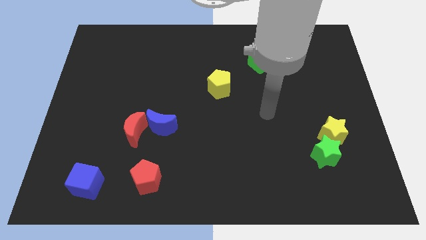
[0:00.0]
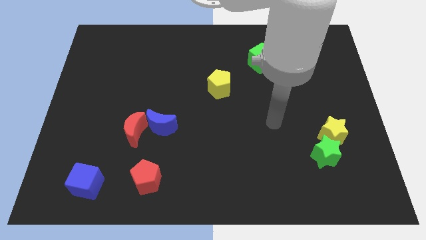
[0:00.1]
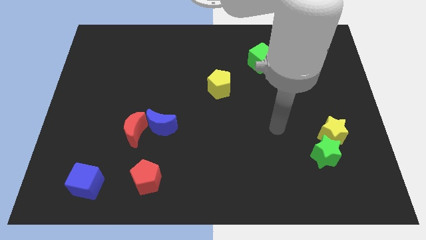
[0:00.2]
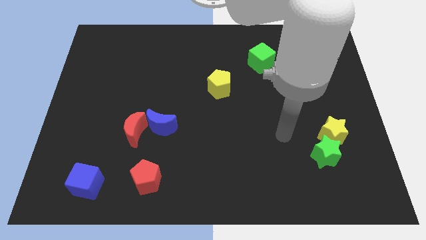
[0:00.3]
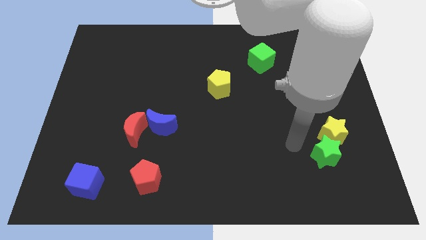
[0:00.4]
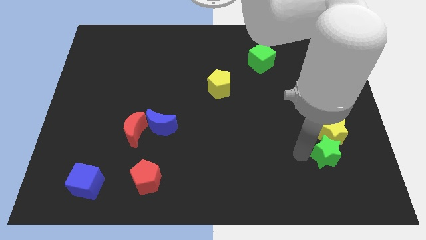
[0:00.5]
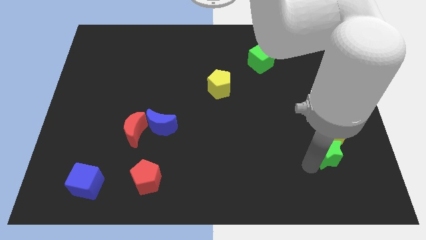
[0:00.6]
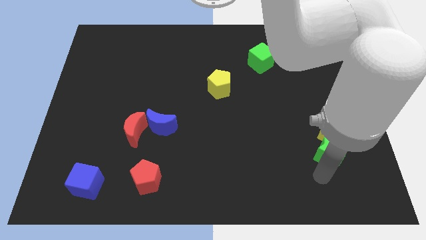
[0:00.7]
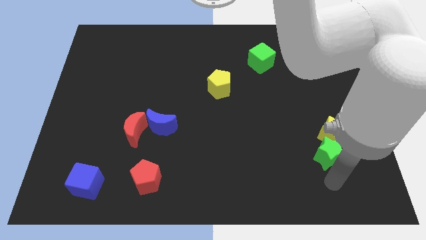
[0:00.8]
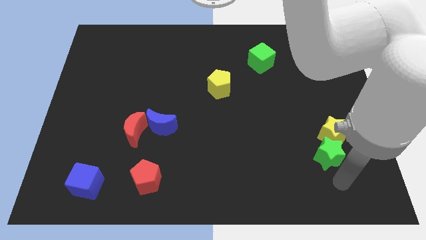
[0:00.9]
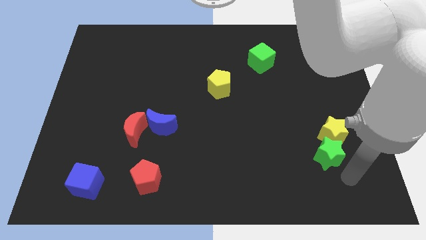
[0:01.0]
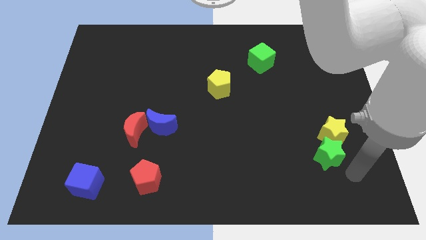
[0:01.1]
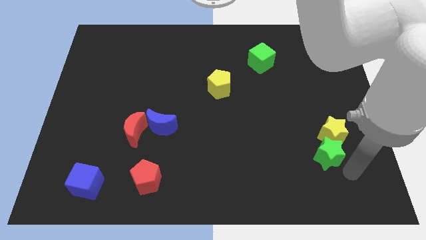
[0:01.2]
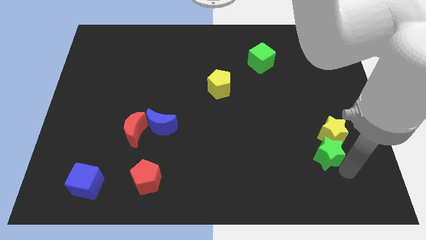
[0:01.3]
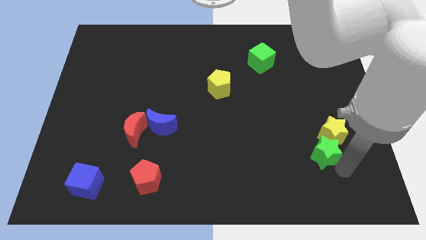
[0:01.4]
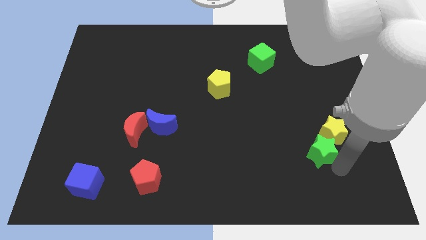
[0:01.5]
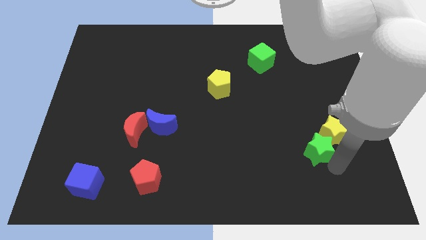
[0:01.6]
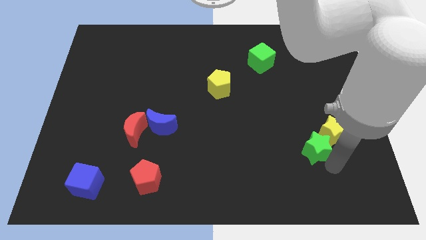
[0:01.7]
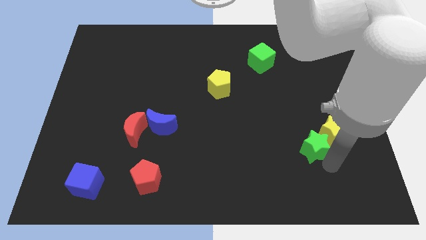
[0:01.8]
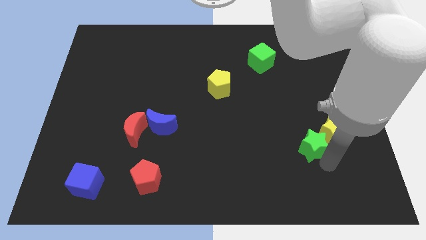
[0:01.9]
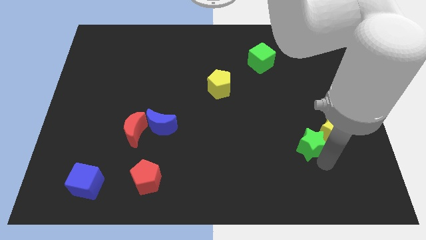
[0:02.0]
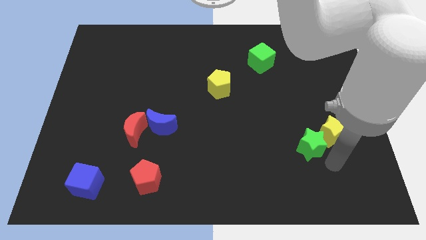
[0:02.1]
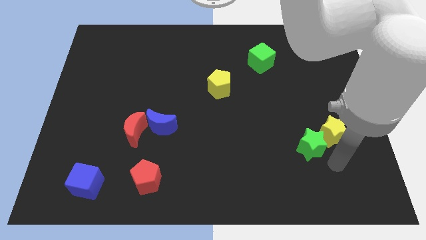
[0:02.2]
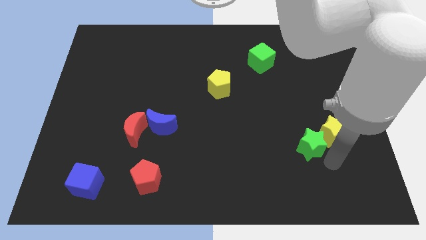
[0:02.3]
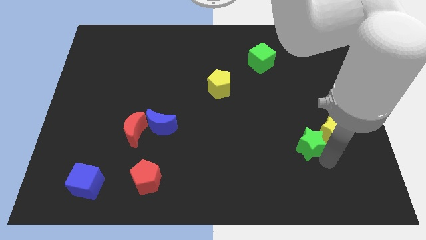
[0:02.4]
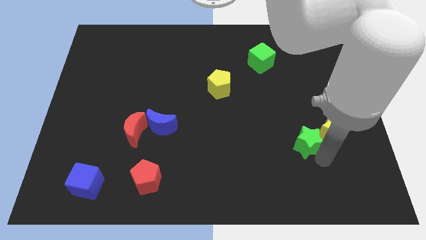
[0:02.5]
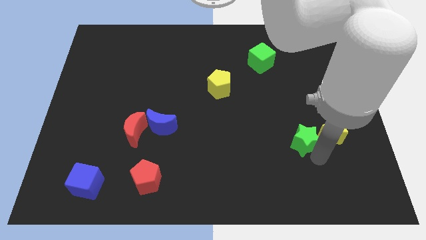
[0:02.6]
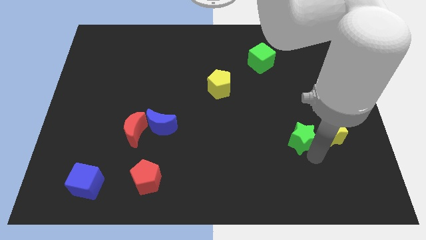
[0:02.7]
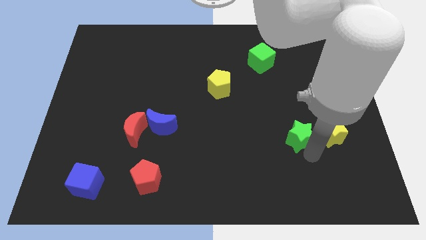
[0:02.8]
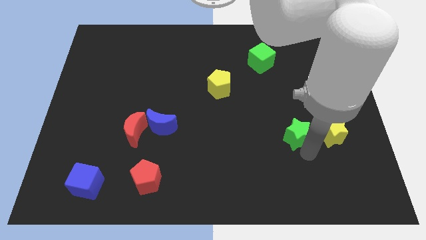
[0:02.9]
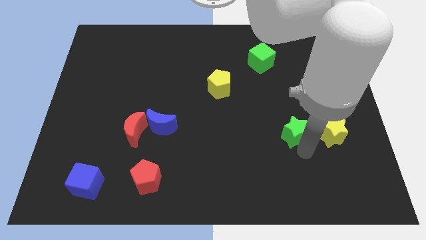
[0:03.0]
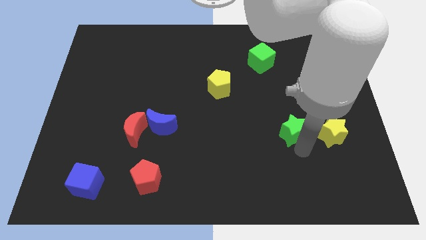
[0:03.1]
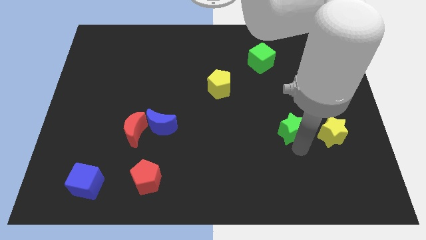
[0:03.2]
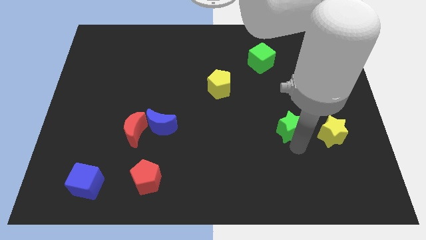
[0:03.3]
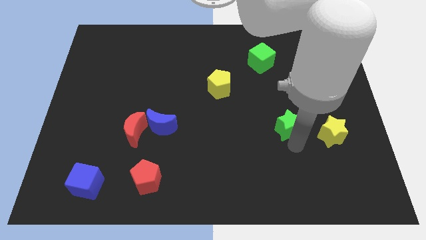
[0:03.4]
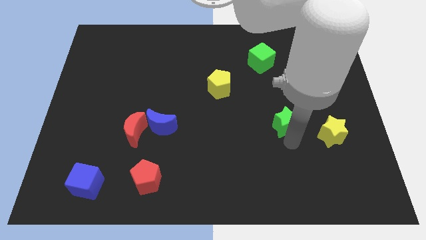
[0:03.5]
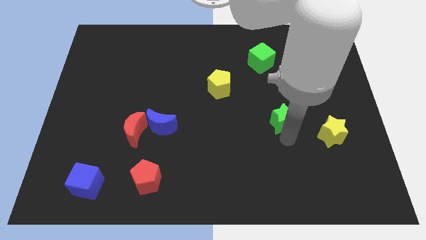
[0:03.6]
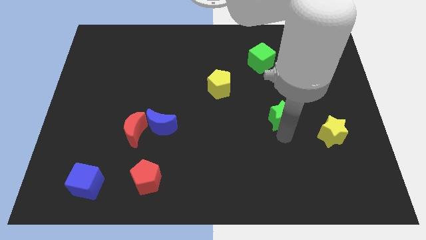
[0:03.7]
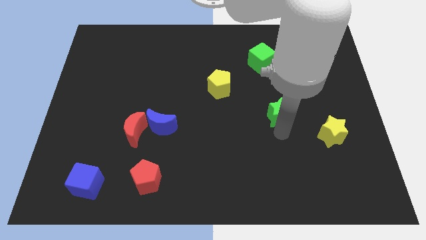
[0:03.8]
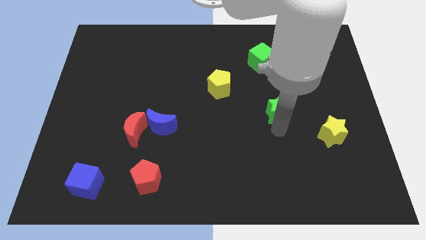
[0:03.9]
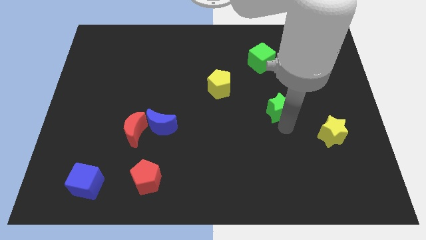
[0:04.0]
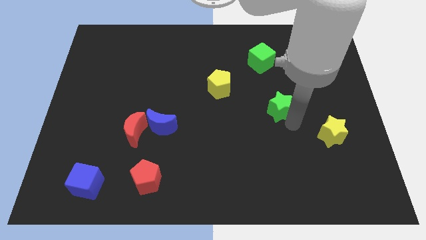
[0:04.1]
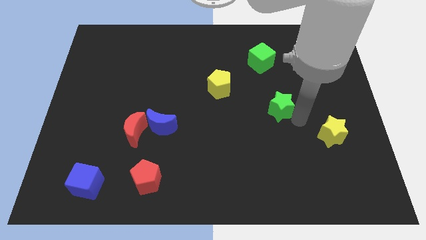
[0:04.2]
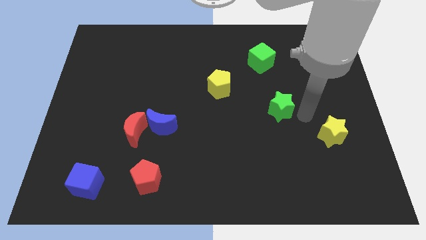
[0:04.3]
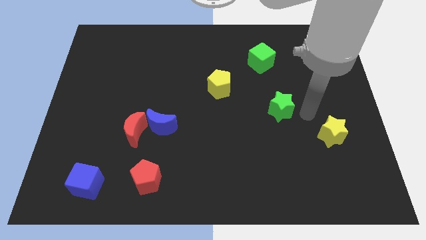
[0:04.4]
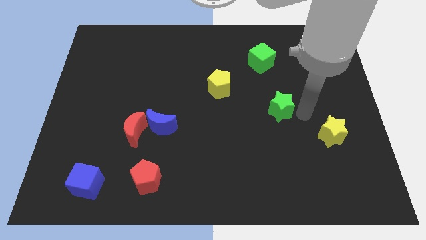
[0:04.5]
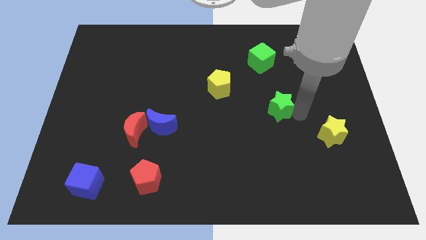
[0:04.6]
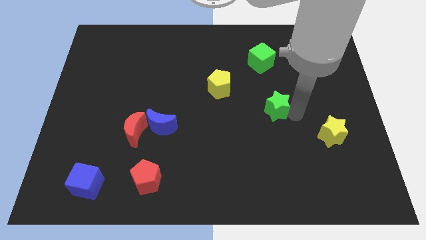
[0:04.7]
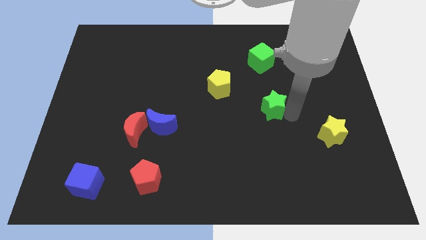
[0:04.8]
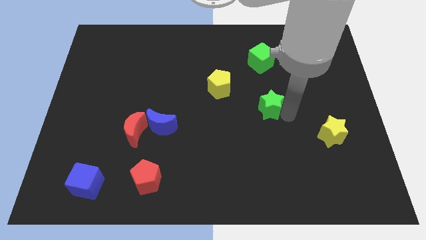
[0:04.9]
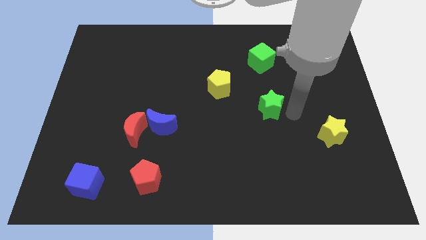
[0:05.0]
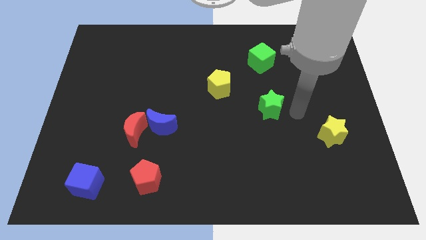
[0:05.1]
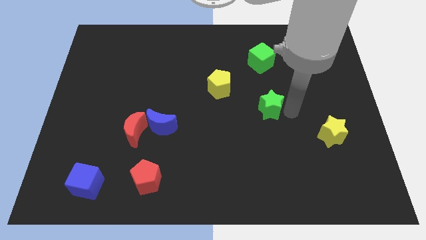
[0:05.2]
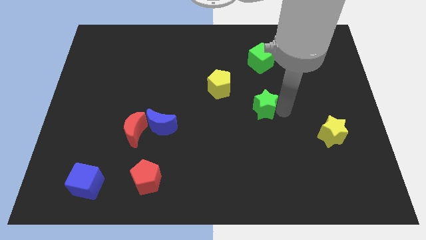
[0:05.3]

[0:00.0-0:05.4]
move the green star diagonally down and to the right of the yellow pentagon

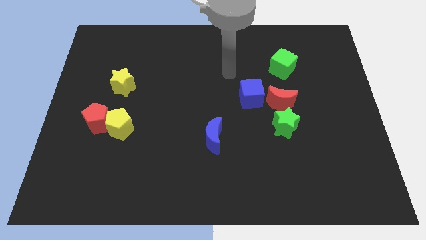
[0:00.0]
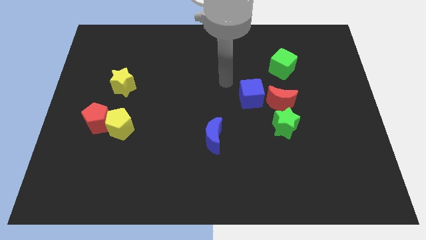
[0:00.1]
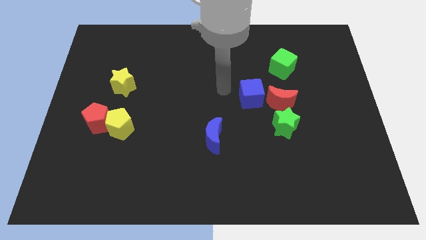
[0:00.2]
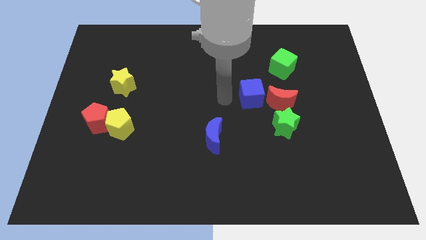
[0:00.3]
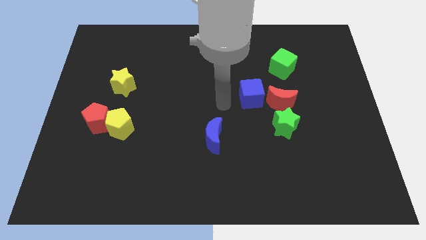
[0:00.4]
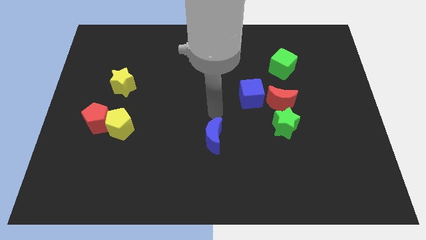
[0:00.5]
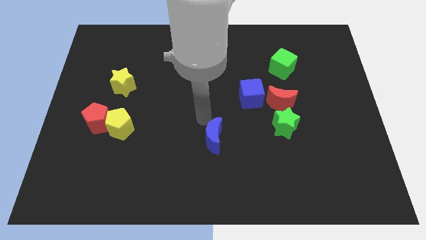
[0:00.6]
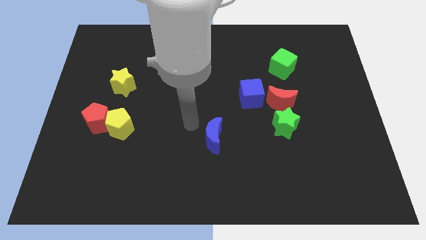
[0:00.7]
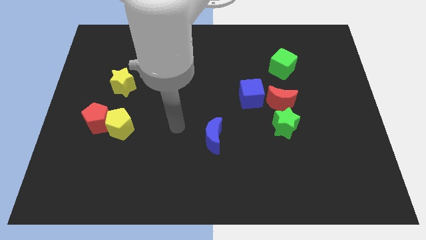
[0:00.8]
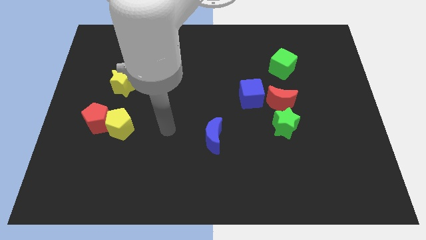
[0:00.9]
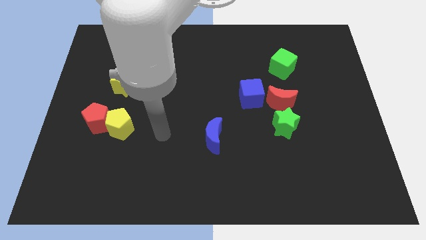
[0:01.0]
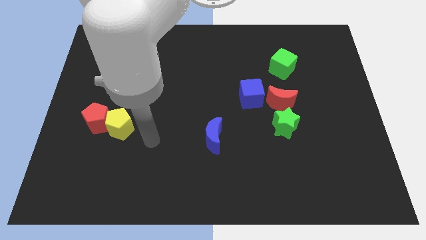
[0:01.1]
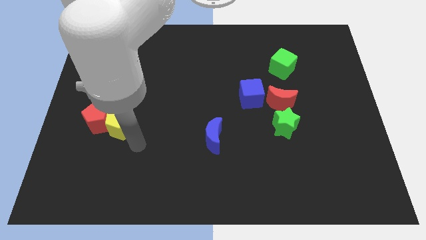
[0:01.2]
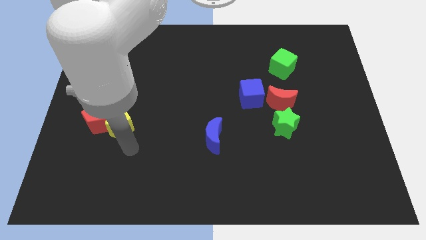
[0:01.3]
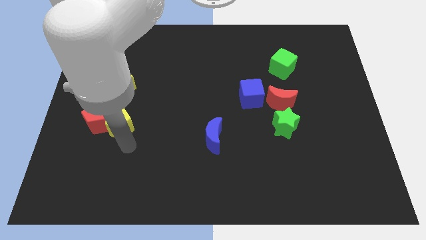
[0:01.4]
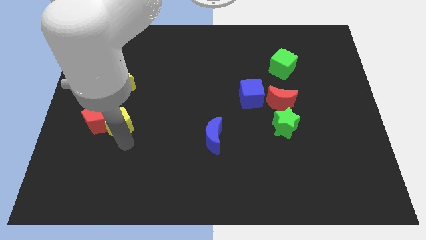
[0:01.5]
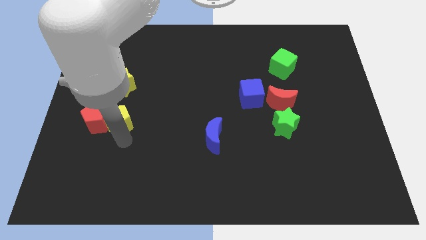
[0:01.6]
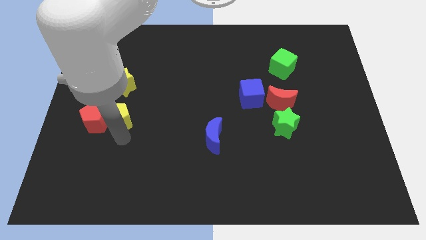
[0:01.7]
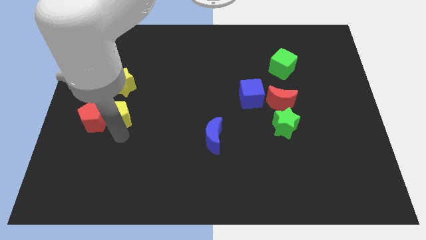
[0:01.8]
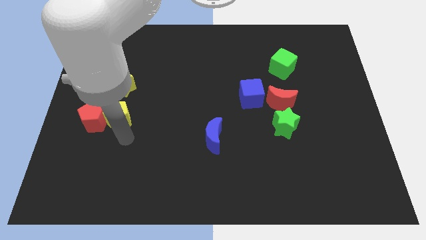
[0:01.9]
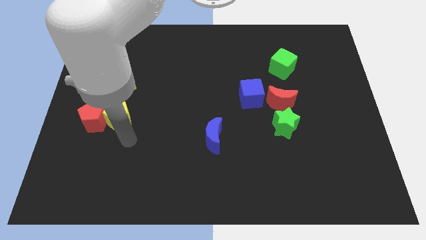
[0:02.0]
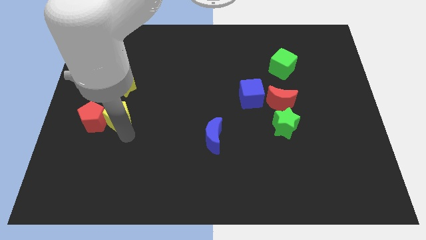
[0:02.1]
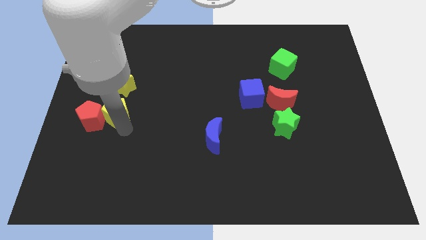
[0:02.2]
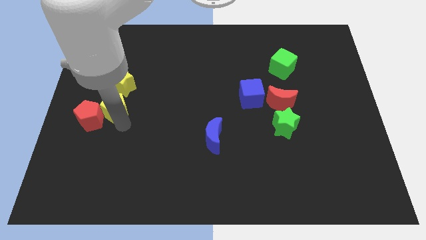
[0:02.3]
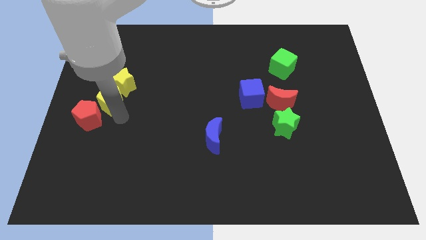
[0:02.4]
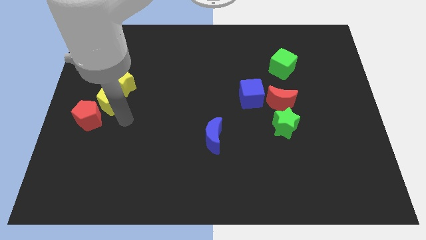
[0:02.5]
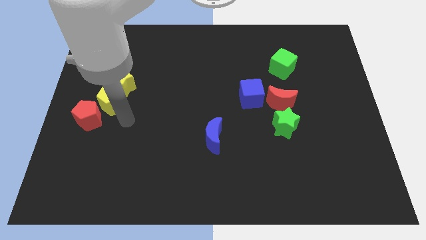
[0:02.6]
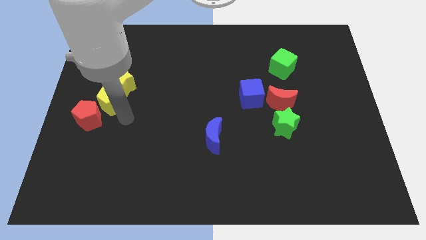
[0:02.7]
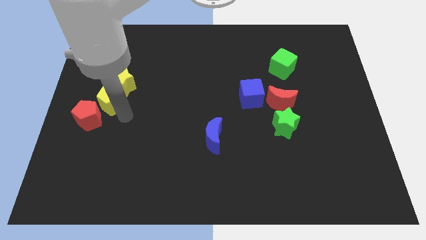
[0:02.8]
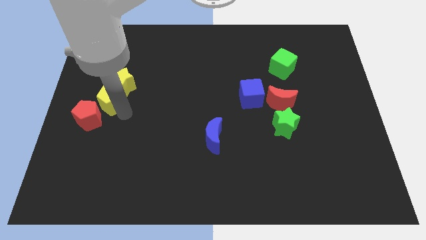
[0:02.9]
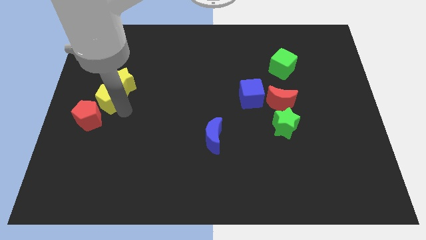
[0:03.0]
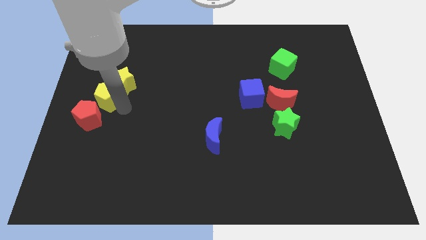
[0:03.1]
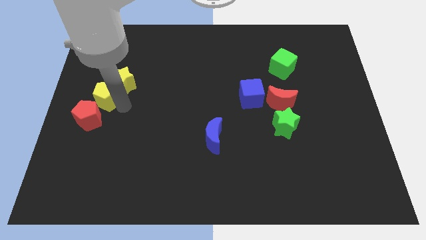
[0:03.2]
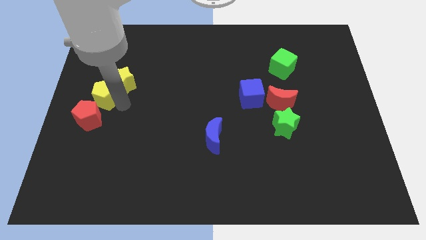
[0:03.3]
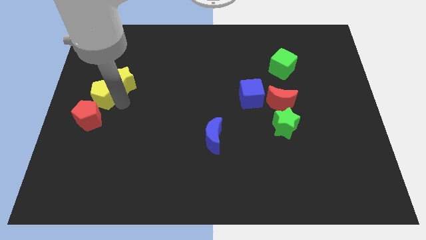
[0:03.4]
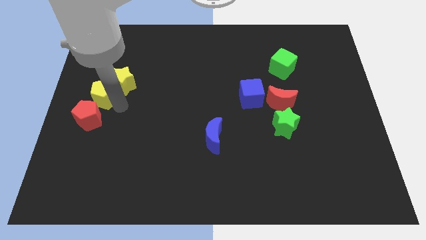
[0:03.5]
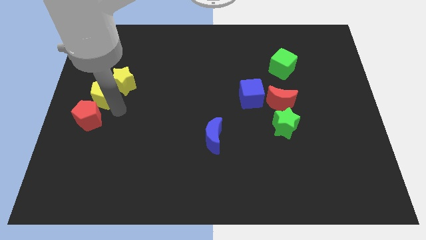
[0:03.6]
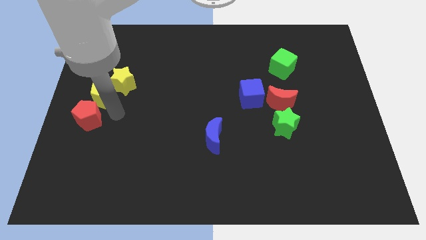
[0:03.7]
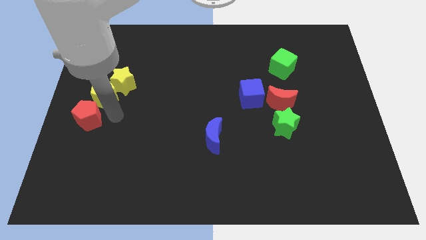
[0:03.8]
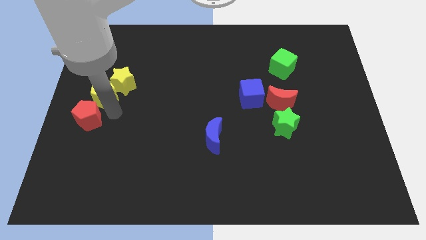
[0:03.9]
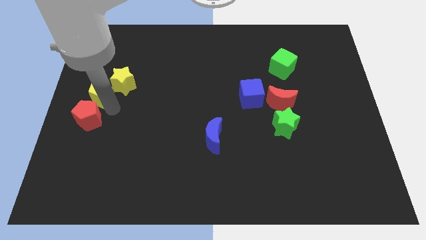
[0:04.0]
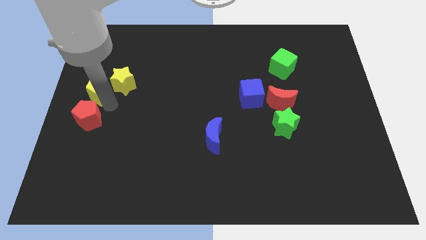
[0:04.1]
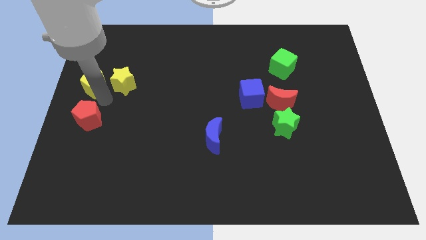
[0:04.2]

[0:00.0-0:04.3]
put the yellow pentagon to the top left of the yellow star
